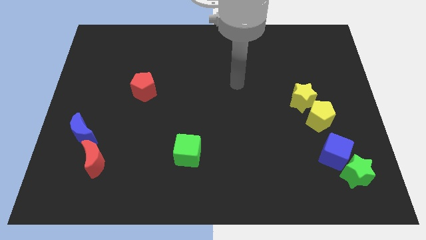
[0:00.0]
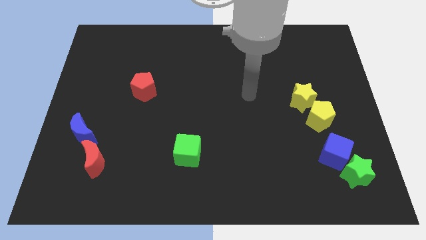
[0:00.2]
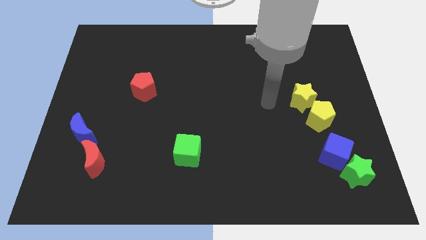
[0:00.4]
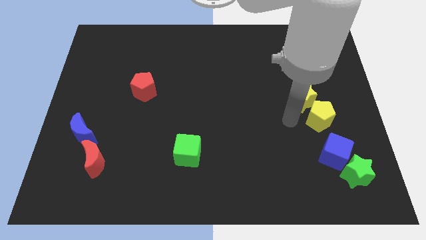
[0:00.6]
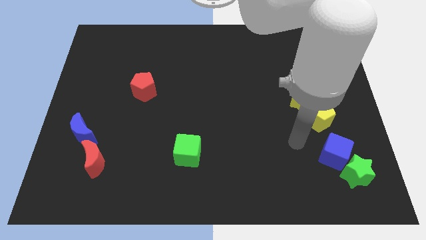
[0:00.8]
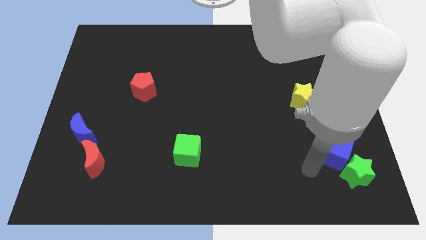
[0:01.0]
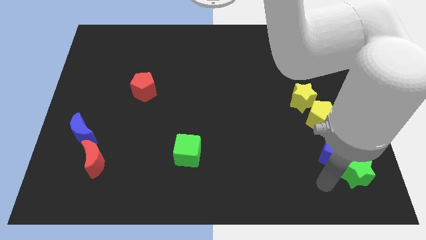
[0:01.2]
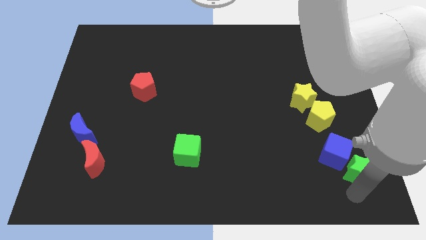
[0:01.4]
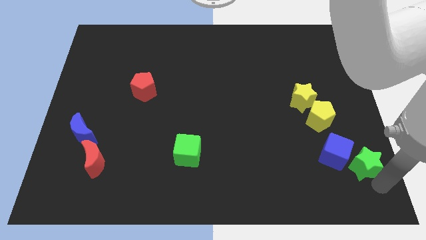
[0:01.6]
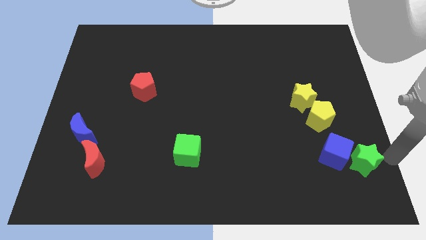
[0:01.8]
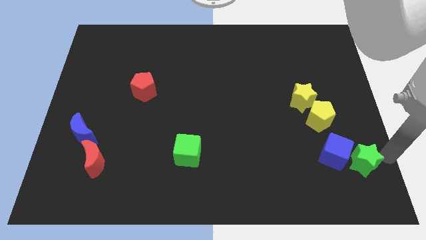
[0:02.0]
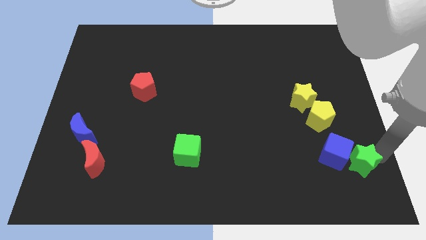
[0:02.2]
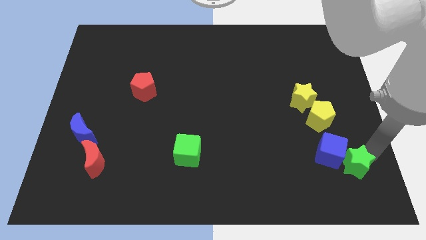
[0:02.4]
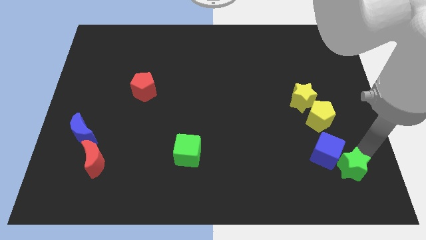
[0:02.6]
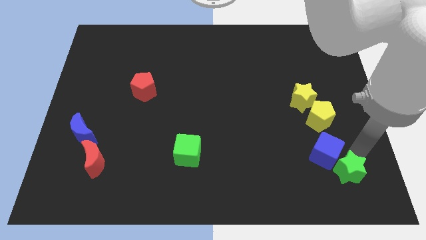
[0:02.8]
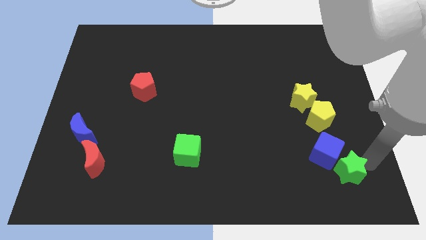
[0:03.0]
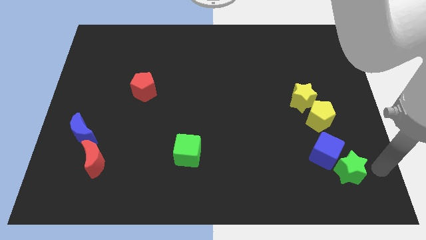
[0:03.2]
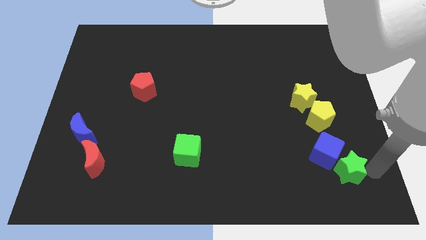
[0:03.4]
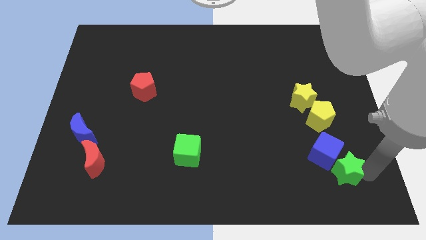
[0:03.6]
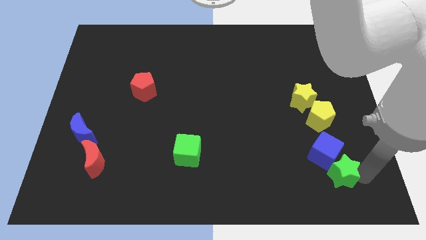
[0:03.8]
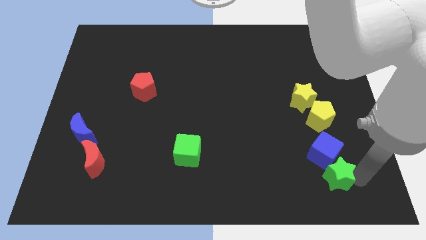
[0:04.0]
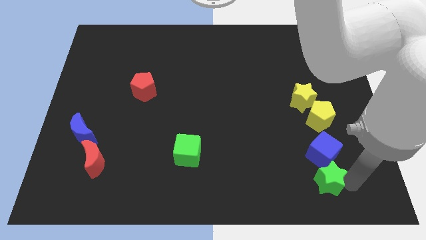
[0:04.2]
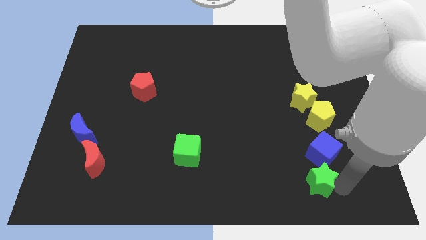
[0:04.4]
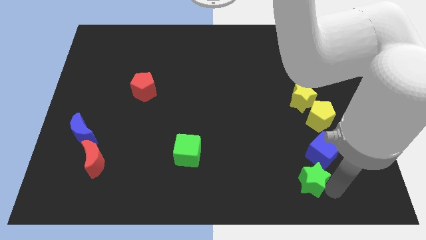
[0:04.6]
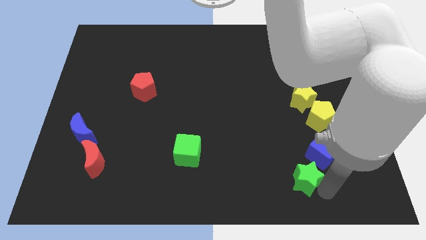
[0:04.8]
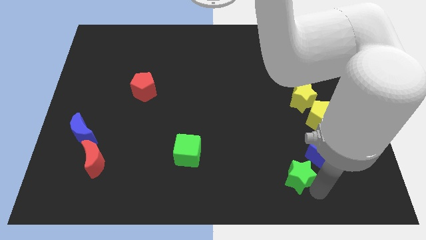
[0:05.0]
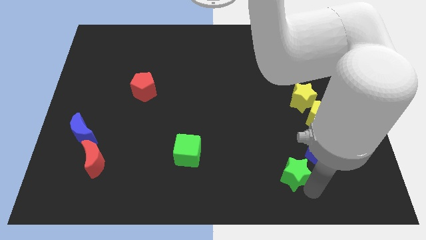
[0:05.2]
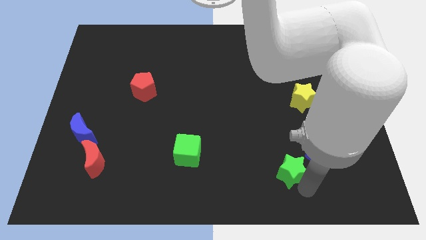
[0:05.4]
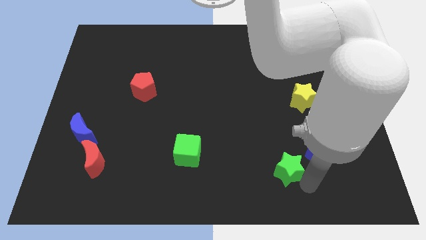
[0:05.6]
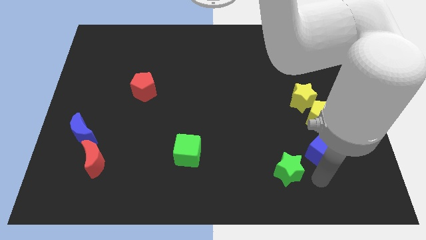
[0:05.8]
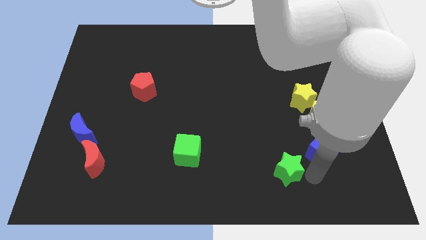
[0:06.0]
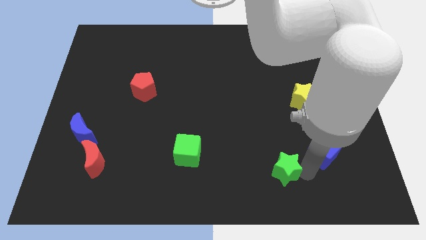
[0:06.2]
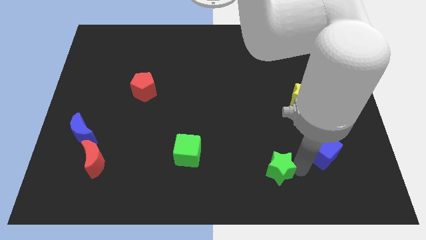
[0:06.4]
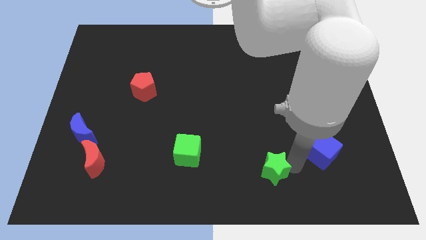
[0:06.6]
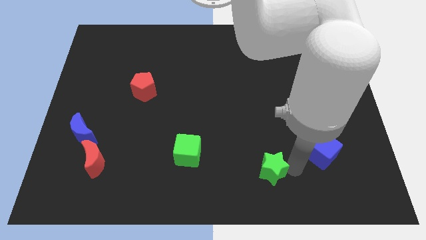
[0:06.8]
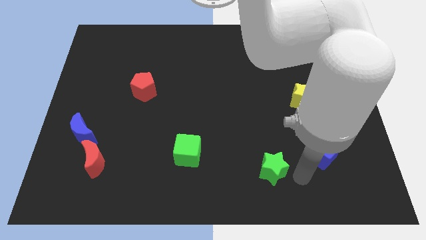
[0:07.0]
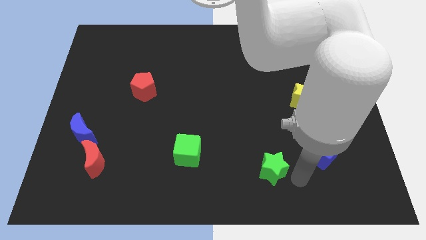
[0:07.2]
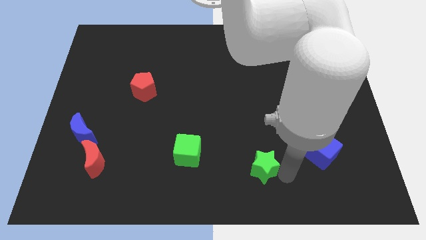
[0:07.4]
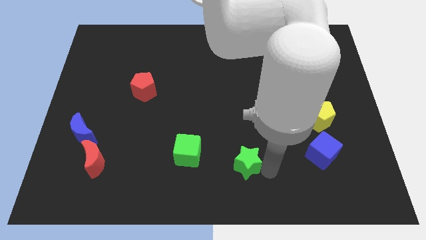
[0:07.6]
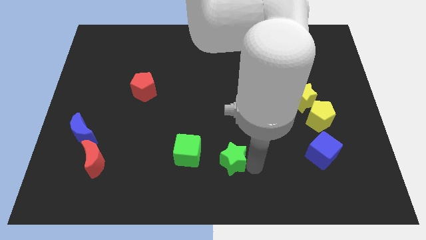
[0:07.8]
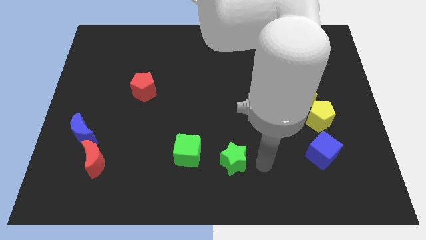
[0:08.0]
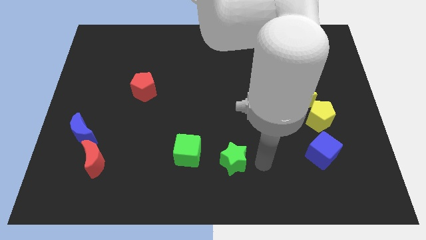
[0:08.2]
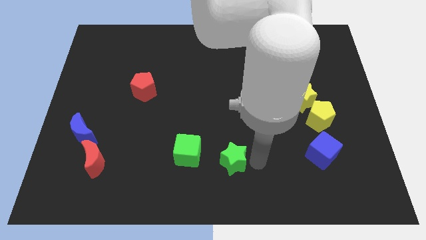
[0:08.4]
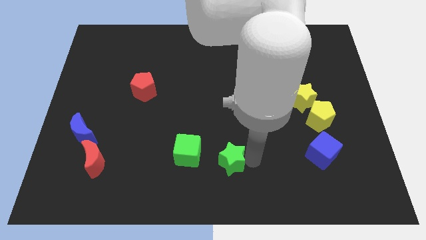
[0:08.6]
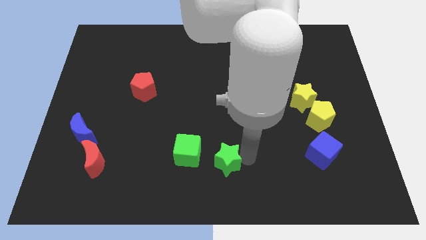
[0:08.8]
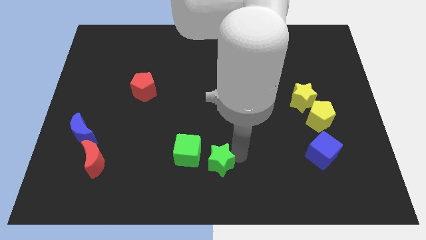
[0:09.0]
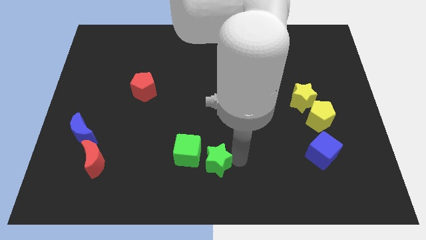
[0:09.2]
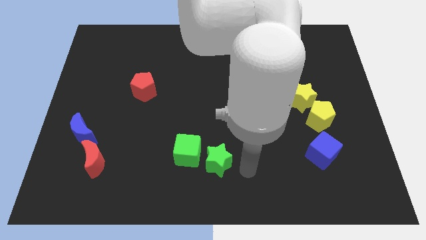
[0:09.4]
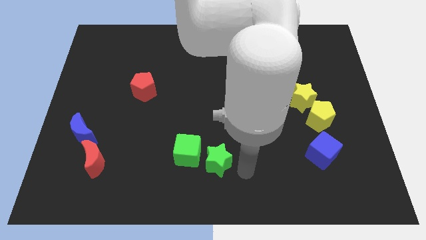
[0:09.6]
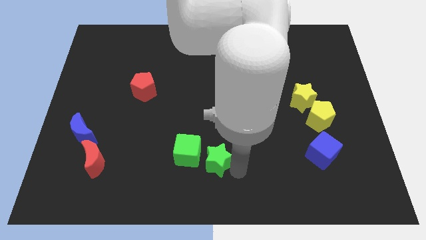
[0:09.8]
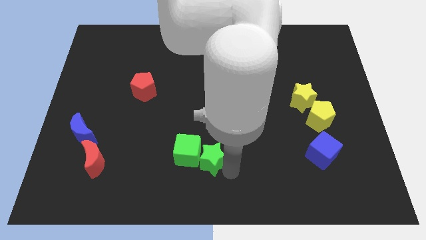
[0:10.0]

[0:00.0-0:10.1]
slide the green star towards the green cube

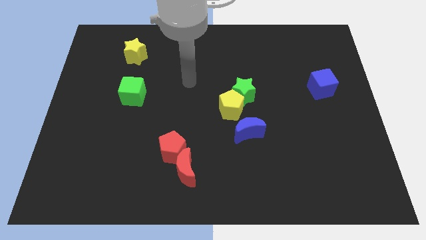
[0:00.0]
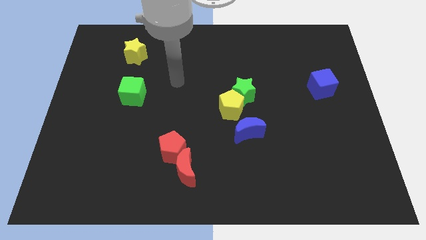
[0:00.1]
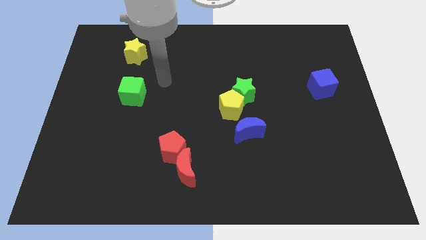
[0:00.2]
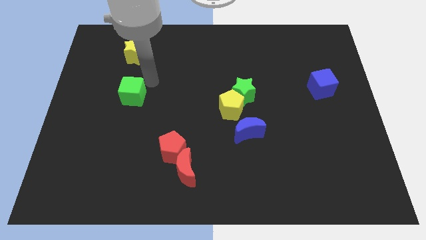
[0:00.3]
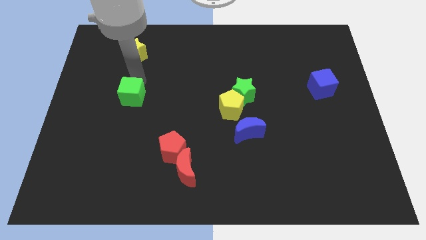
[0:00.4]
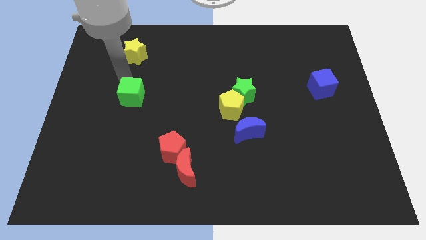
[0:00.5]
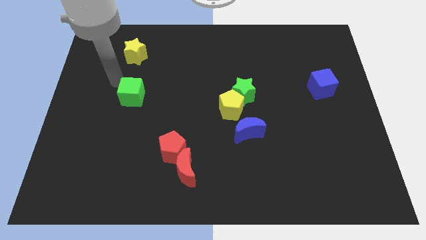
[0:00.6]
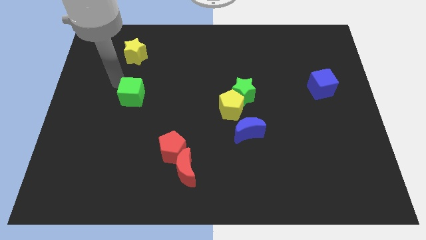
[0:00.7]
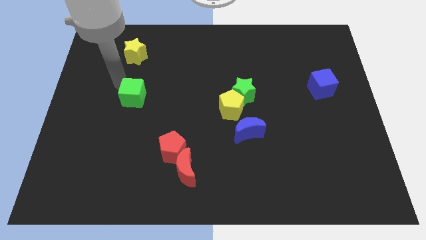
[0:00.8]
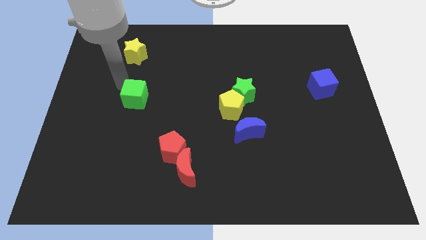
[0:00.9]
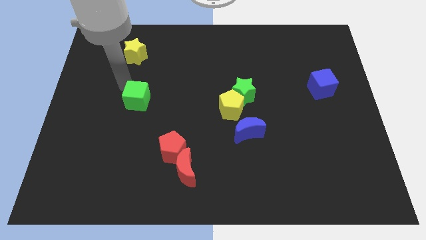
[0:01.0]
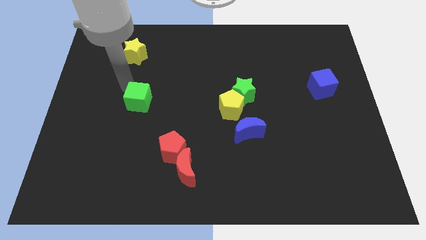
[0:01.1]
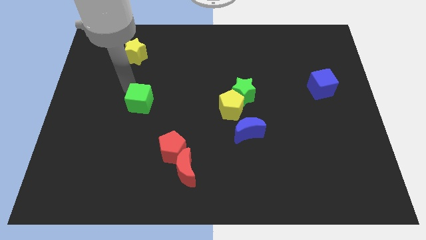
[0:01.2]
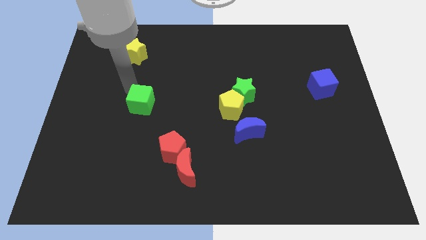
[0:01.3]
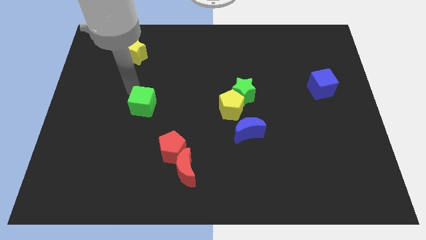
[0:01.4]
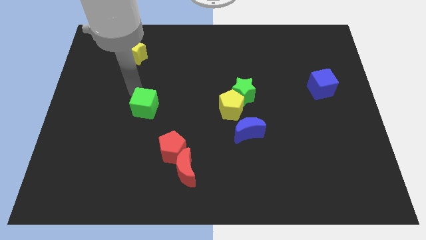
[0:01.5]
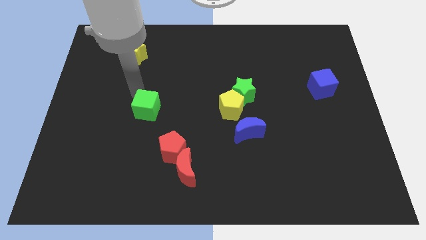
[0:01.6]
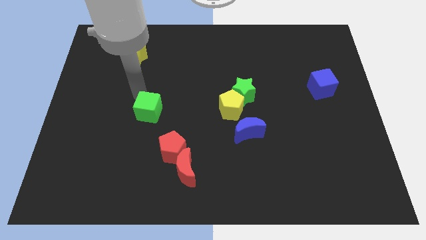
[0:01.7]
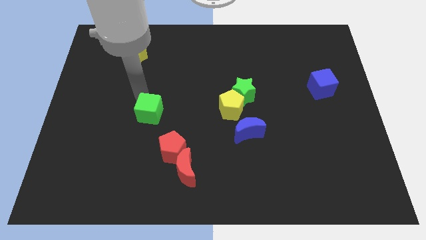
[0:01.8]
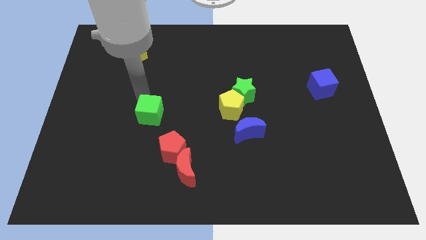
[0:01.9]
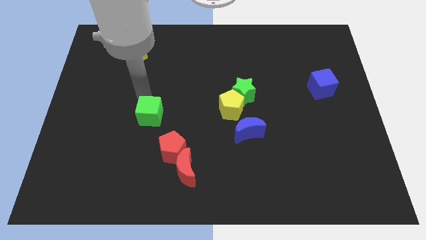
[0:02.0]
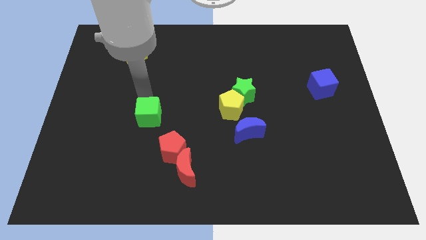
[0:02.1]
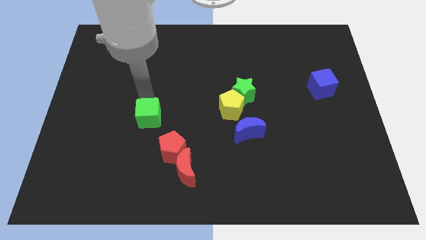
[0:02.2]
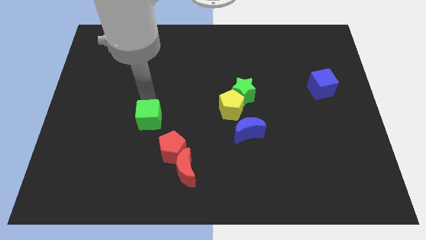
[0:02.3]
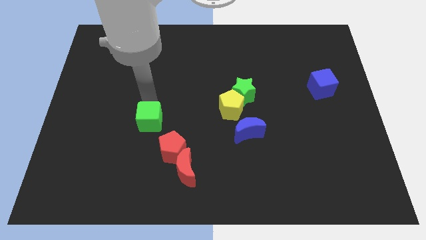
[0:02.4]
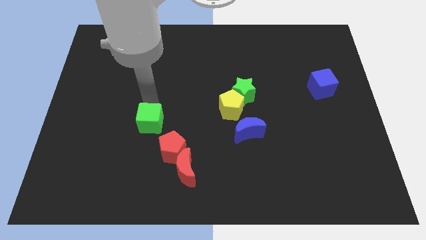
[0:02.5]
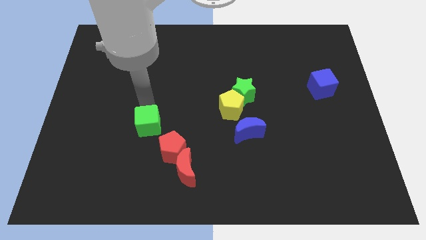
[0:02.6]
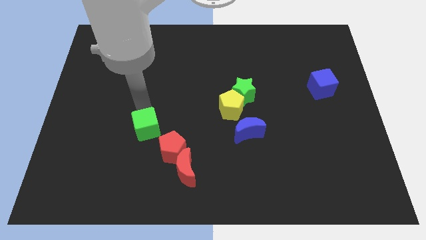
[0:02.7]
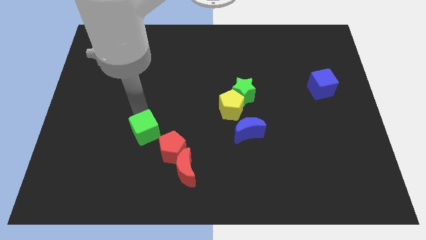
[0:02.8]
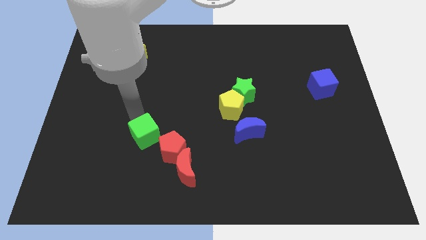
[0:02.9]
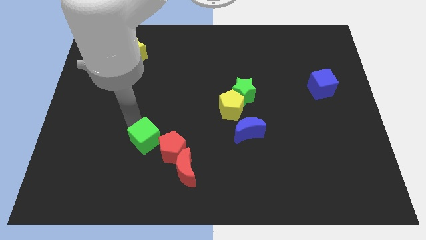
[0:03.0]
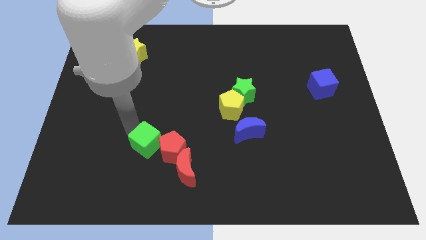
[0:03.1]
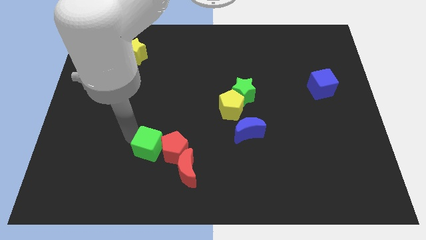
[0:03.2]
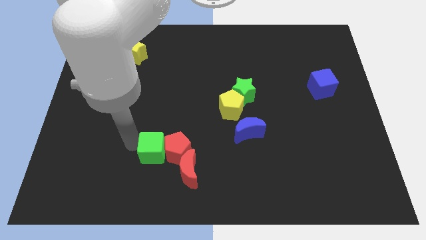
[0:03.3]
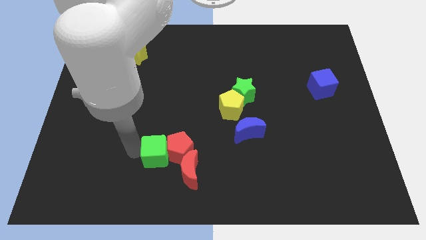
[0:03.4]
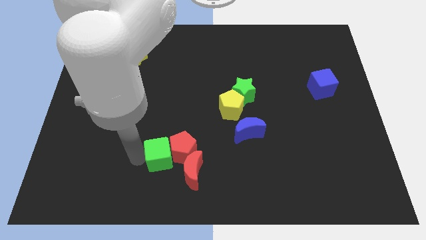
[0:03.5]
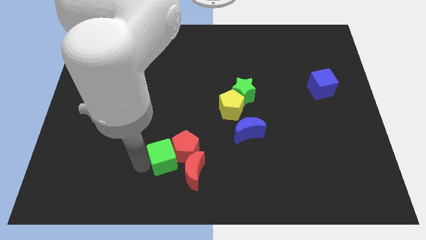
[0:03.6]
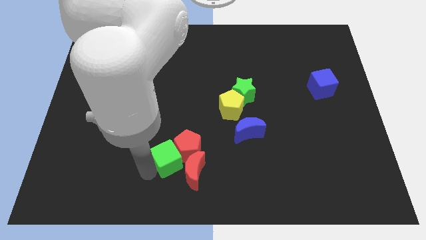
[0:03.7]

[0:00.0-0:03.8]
push the green cube to the red moon
